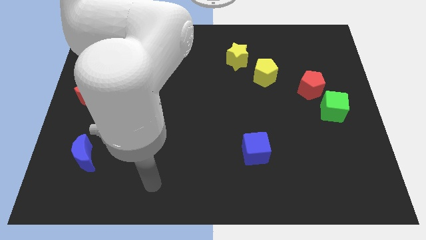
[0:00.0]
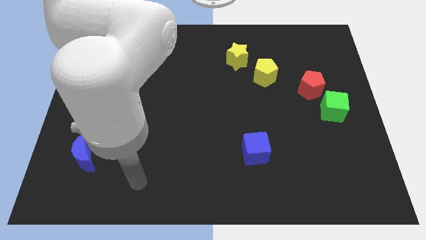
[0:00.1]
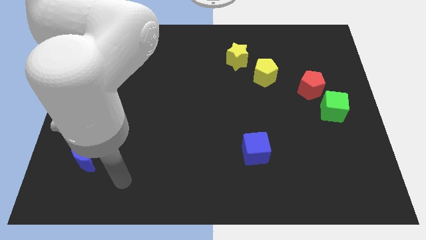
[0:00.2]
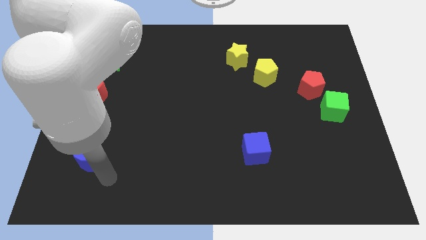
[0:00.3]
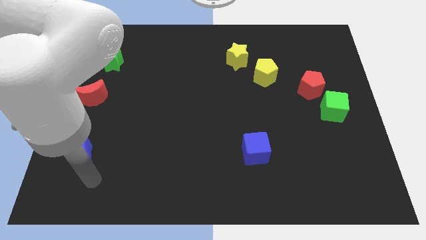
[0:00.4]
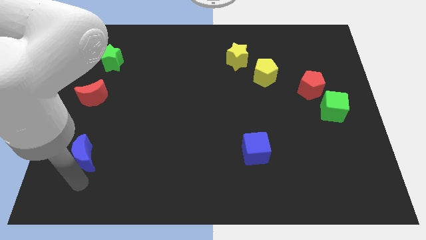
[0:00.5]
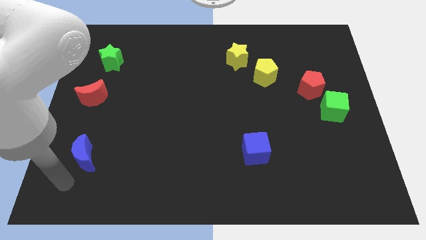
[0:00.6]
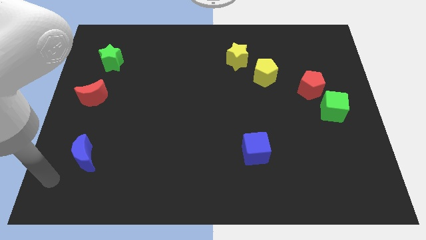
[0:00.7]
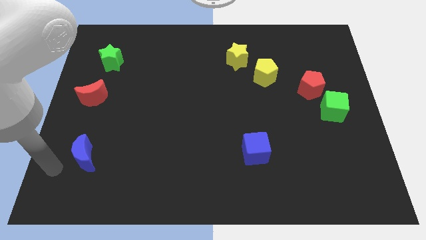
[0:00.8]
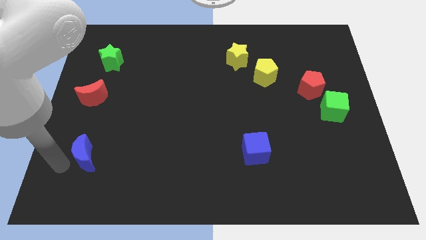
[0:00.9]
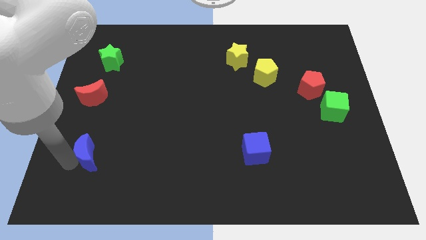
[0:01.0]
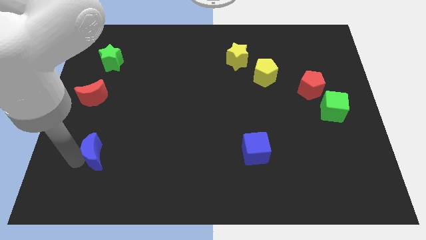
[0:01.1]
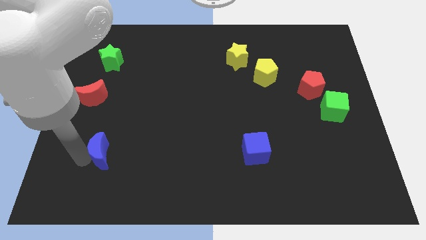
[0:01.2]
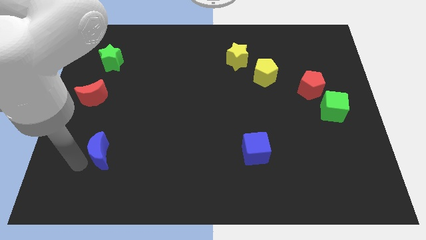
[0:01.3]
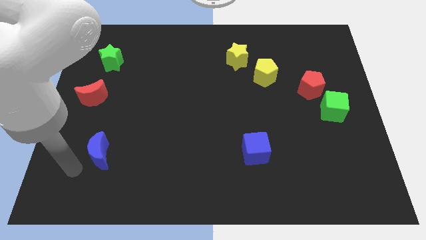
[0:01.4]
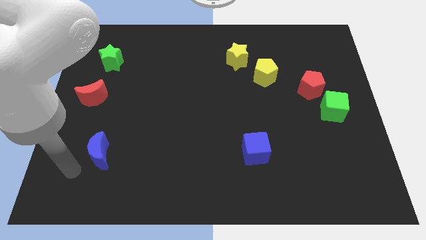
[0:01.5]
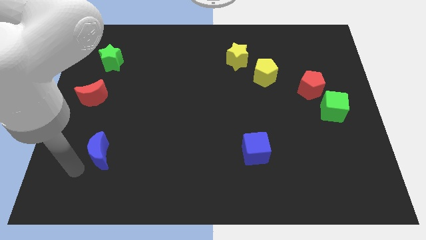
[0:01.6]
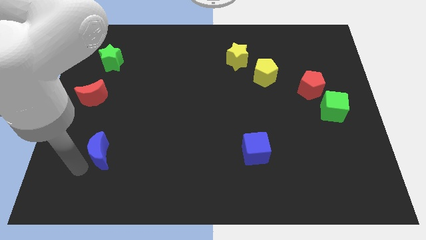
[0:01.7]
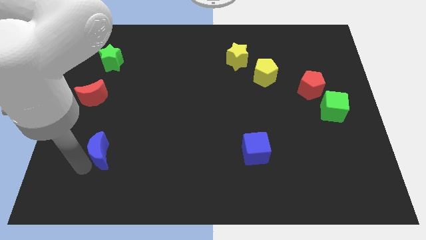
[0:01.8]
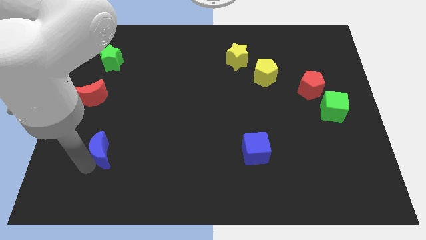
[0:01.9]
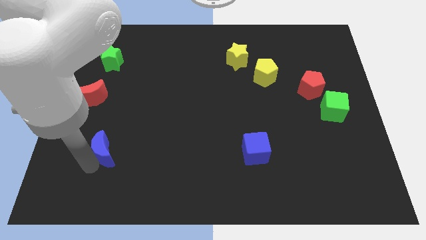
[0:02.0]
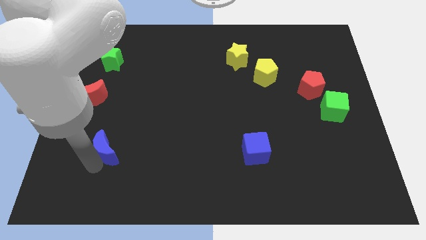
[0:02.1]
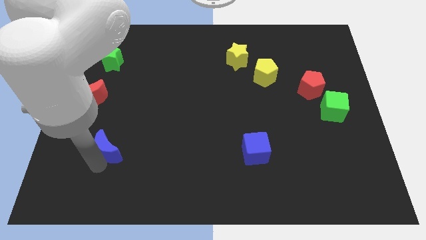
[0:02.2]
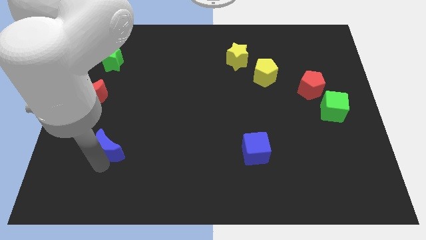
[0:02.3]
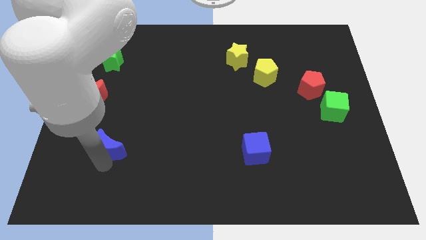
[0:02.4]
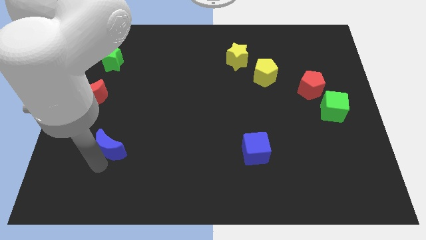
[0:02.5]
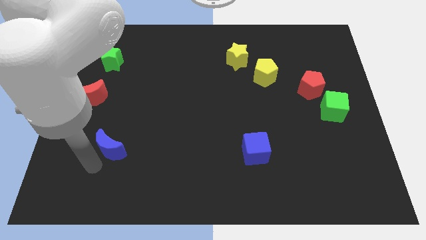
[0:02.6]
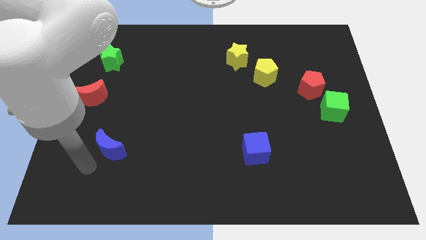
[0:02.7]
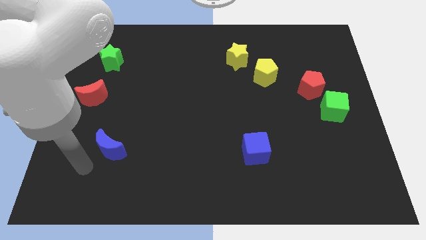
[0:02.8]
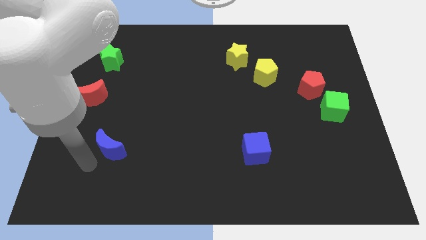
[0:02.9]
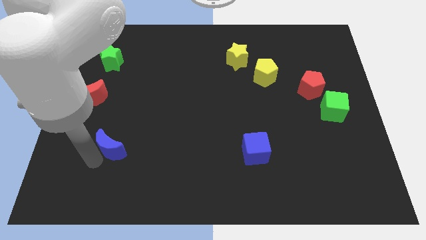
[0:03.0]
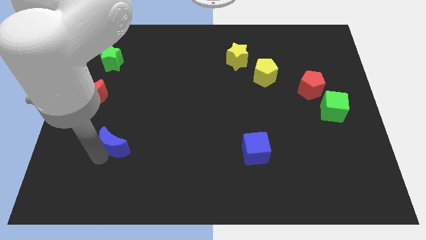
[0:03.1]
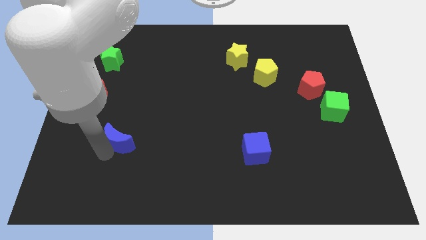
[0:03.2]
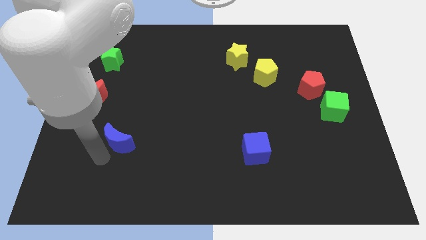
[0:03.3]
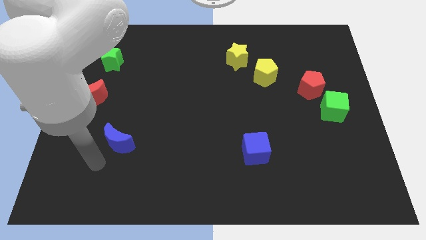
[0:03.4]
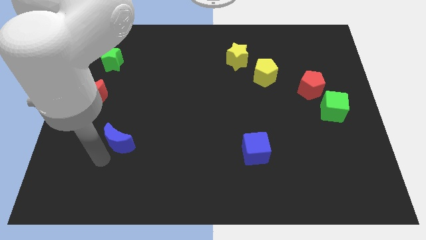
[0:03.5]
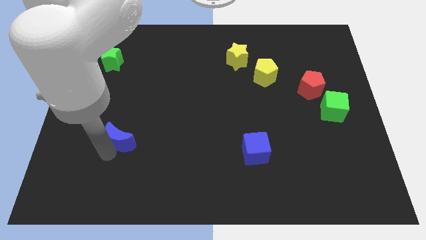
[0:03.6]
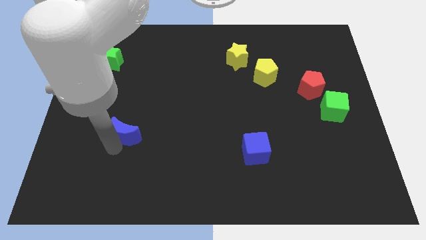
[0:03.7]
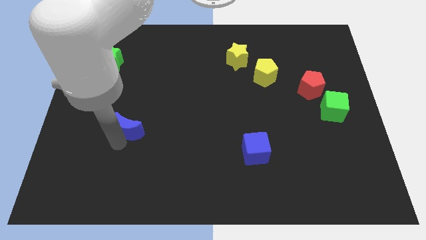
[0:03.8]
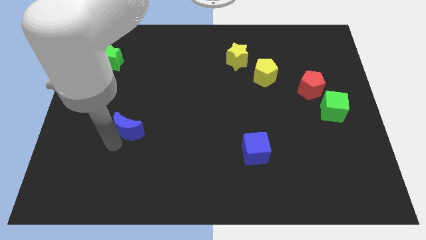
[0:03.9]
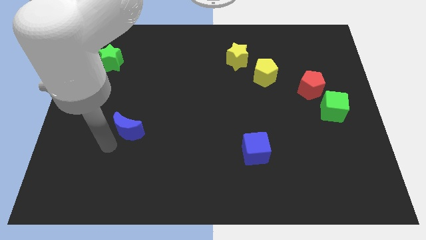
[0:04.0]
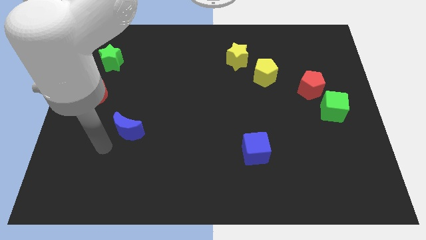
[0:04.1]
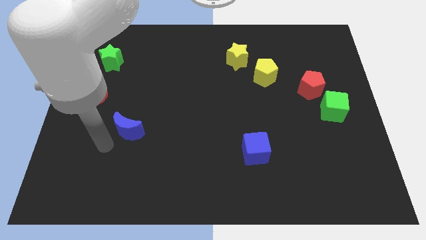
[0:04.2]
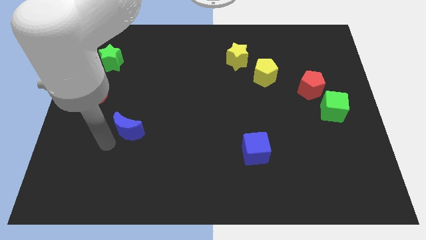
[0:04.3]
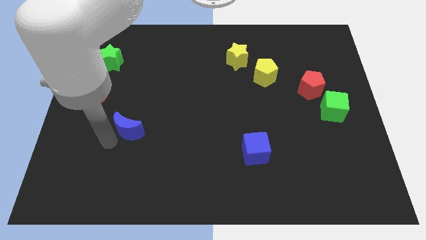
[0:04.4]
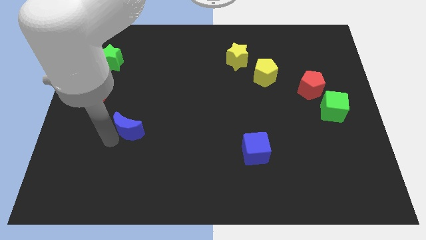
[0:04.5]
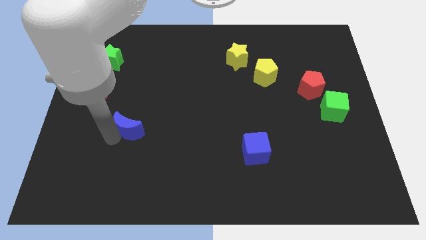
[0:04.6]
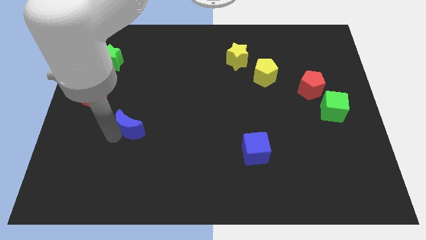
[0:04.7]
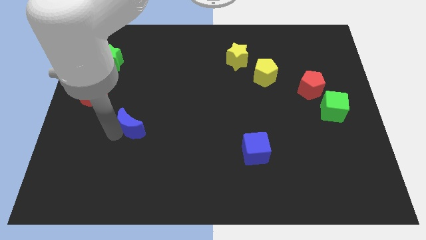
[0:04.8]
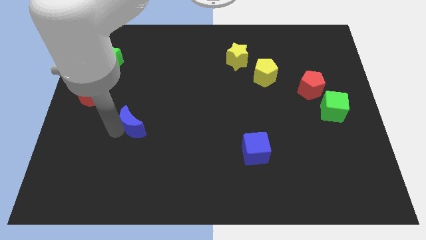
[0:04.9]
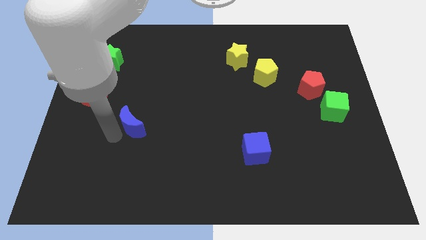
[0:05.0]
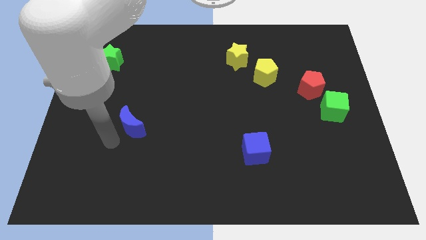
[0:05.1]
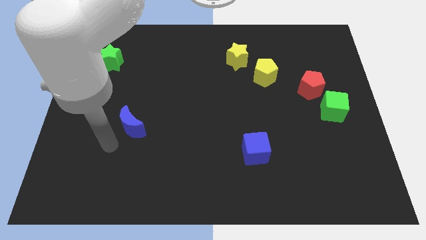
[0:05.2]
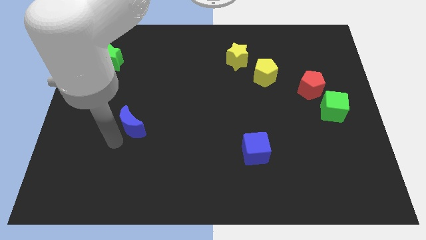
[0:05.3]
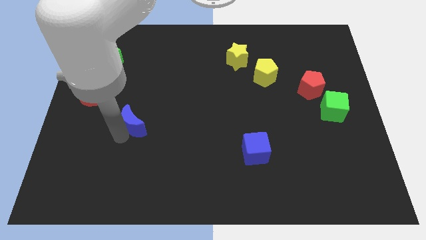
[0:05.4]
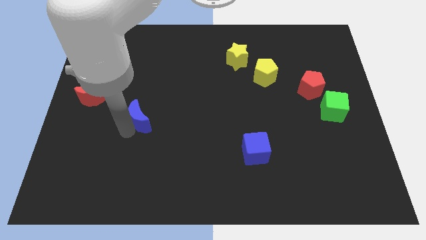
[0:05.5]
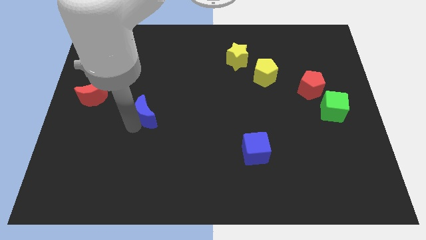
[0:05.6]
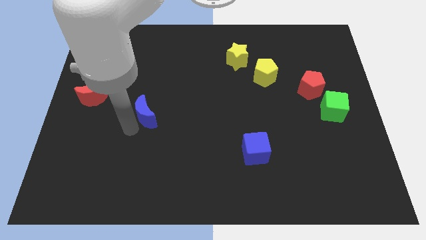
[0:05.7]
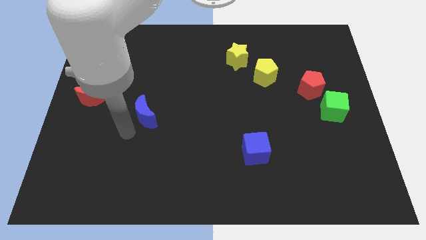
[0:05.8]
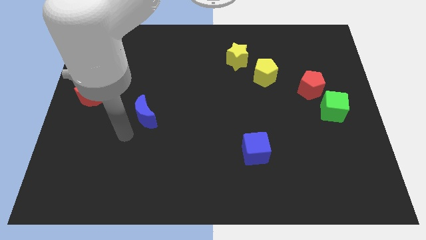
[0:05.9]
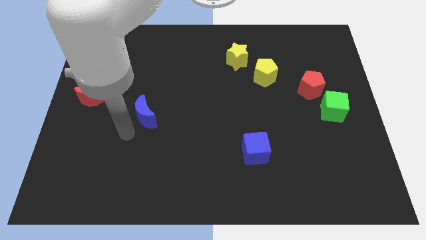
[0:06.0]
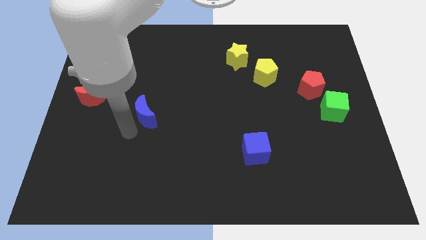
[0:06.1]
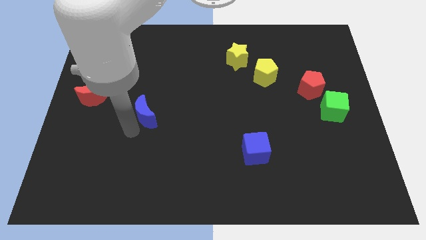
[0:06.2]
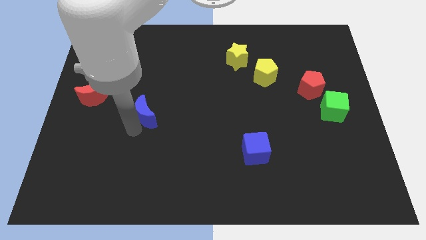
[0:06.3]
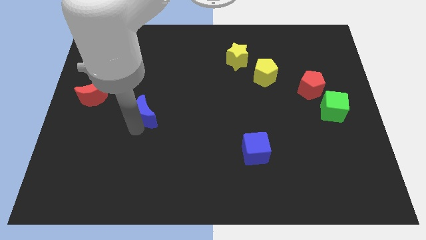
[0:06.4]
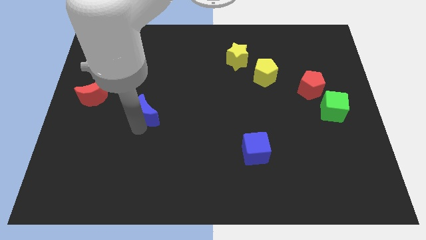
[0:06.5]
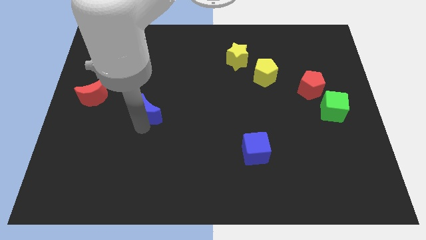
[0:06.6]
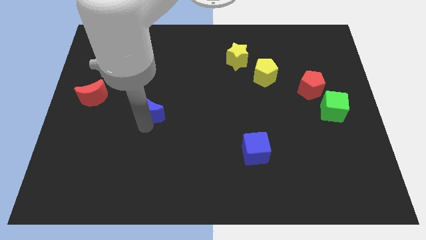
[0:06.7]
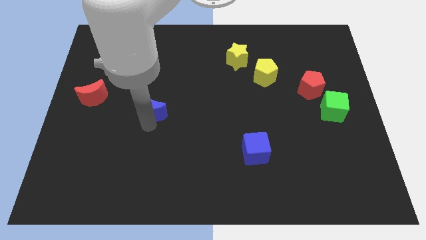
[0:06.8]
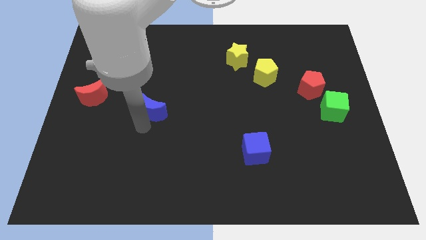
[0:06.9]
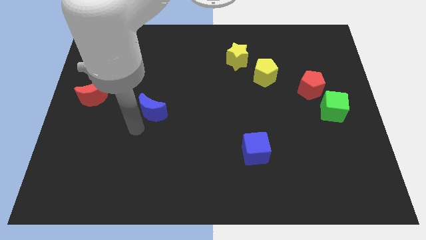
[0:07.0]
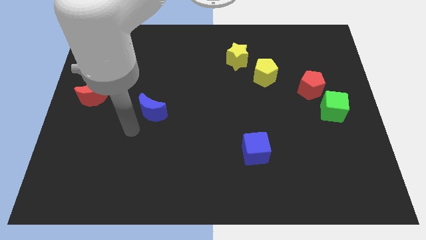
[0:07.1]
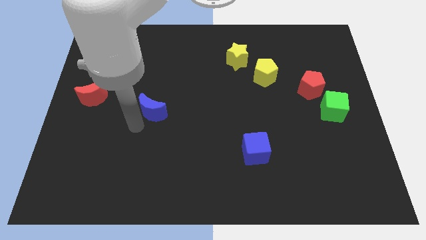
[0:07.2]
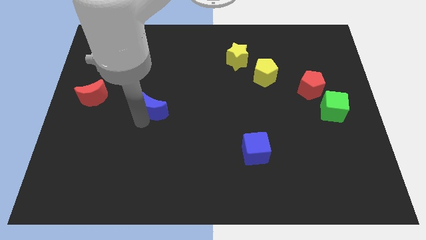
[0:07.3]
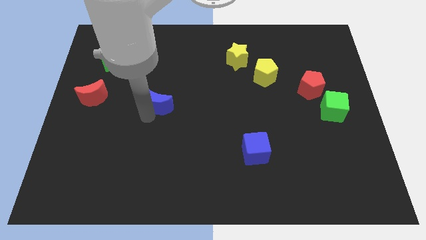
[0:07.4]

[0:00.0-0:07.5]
push the blue moon upwards and to the right

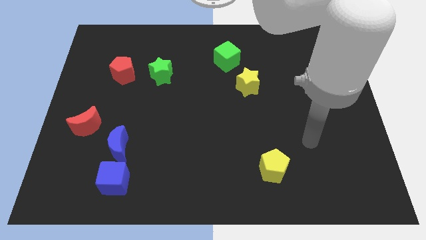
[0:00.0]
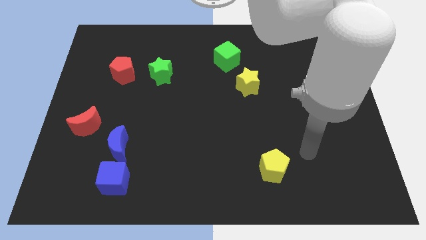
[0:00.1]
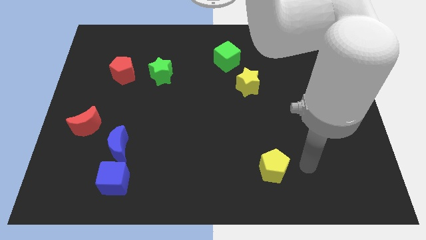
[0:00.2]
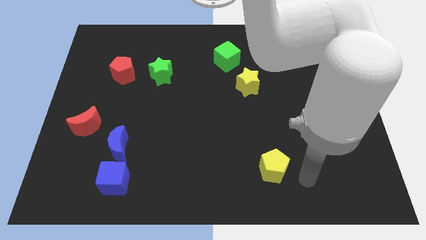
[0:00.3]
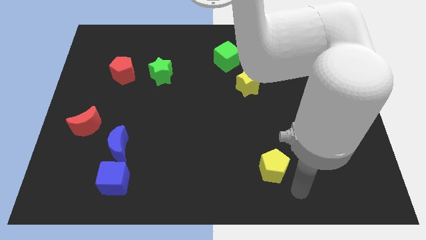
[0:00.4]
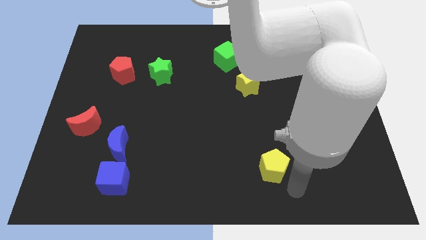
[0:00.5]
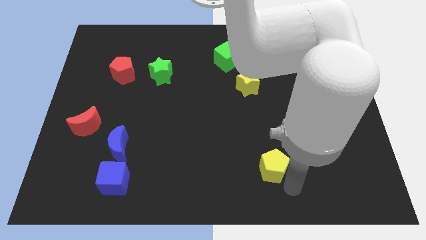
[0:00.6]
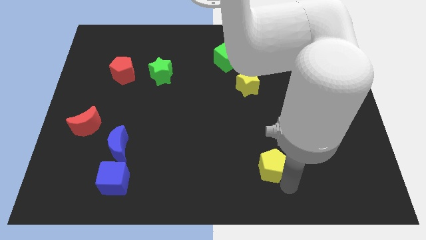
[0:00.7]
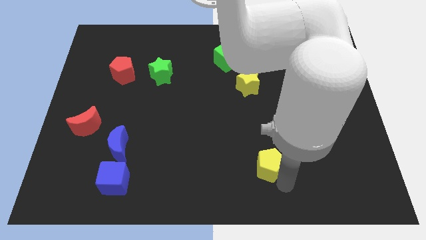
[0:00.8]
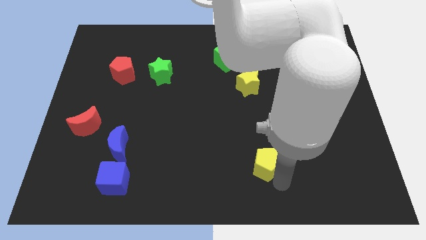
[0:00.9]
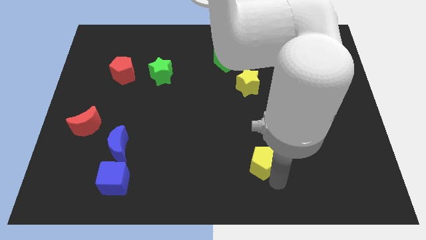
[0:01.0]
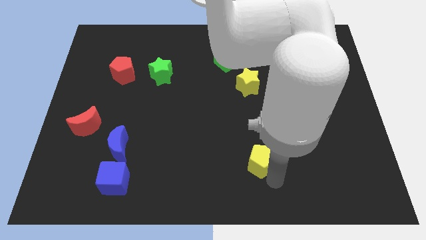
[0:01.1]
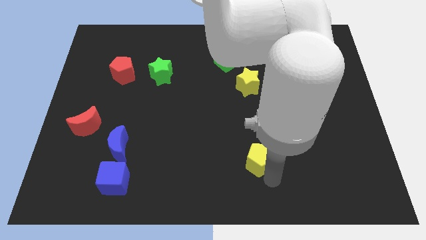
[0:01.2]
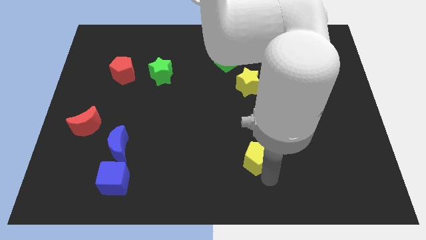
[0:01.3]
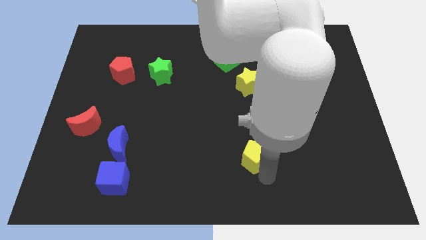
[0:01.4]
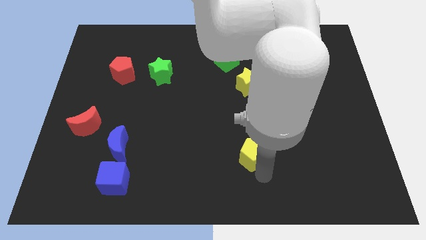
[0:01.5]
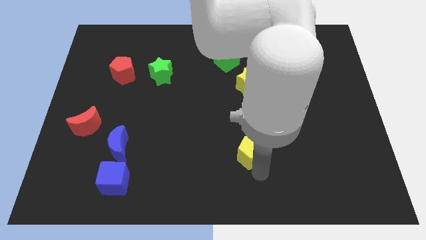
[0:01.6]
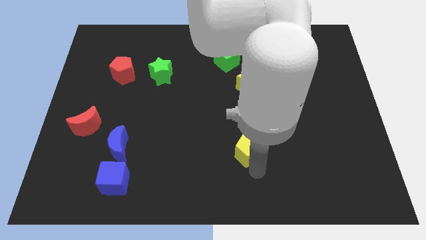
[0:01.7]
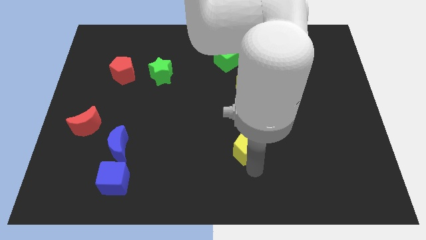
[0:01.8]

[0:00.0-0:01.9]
push the yellow pentagon a little upwards and left diagonally
